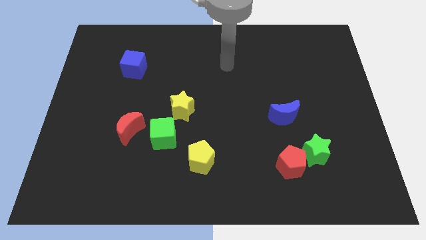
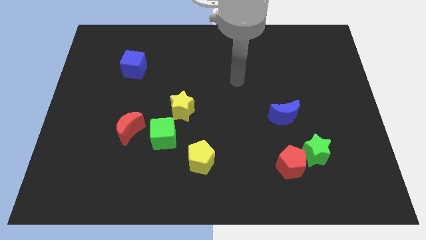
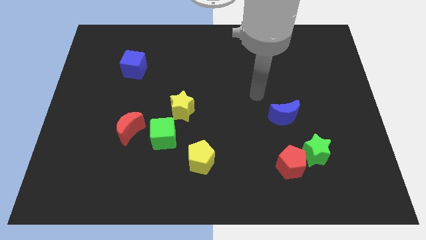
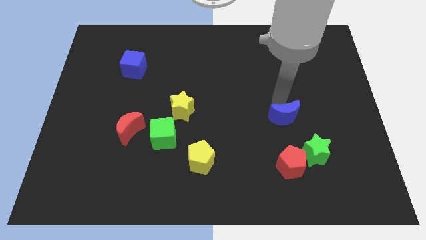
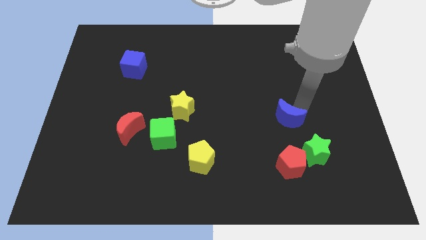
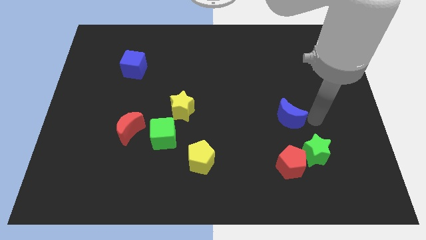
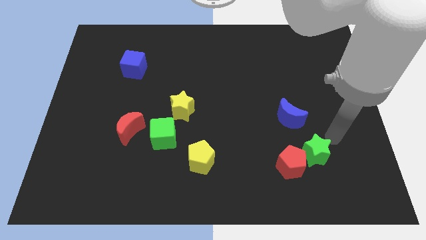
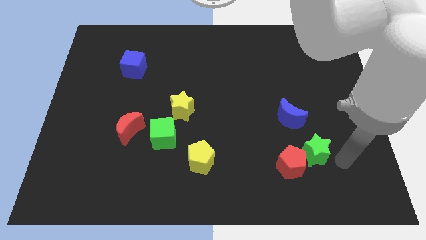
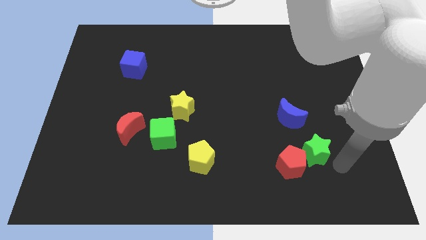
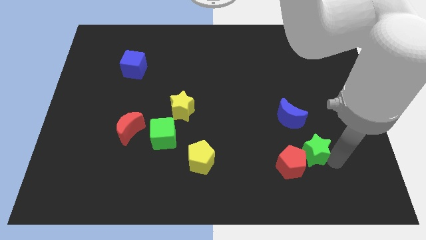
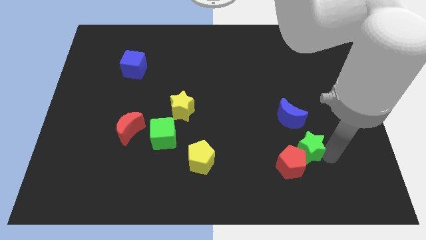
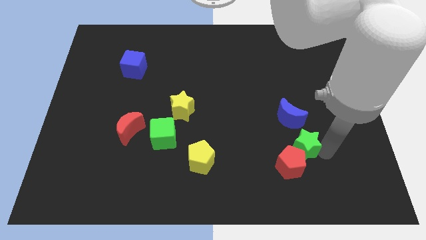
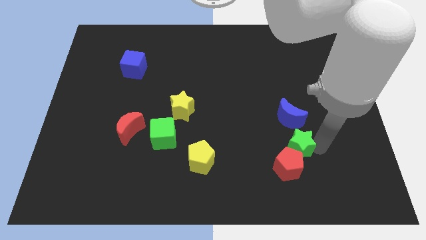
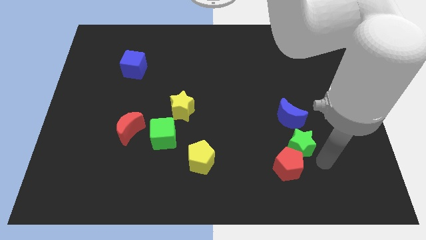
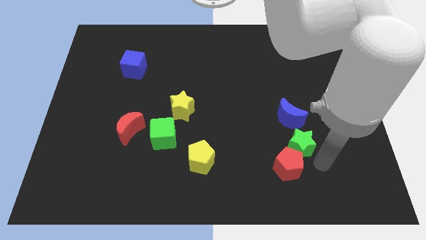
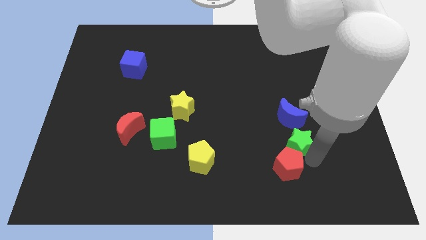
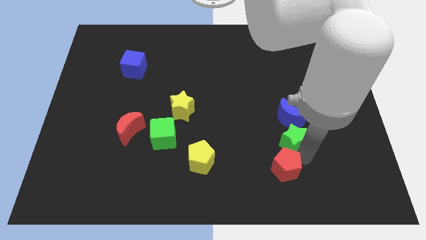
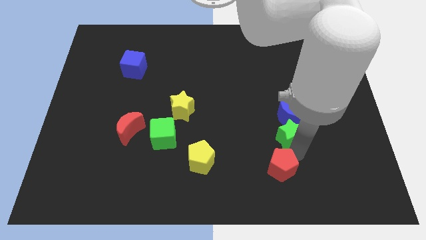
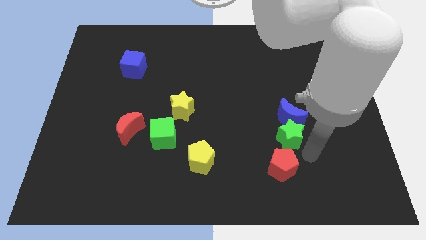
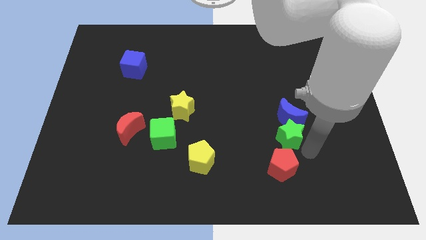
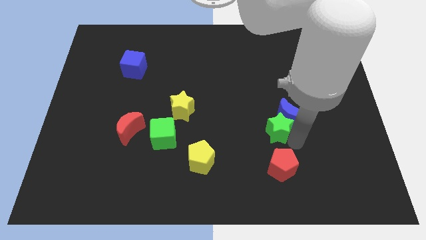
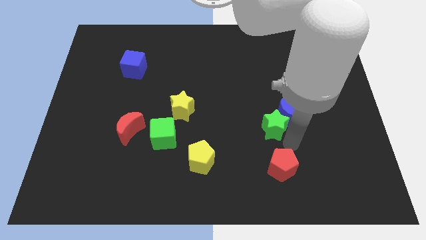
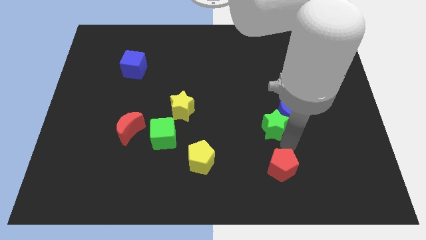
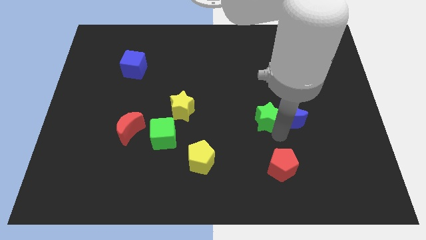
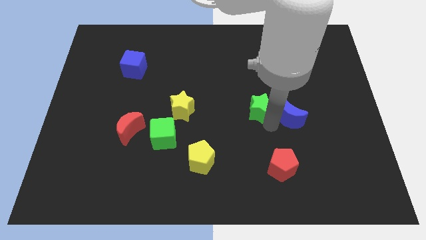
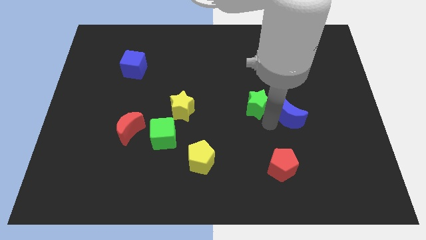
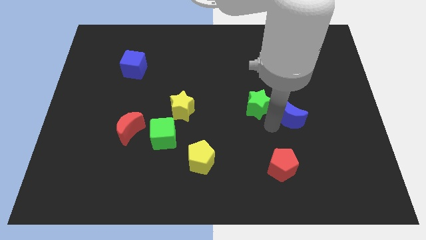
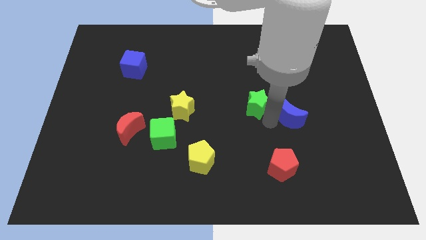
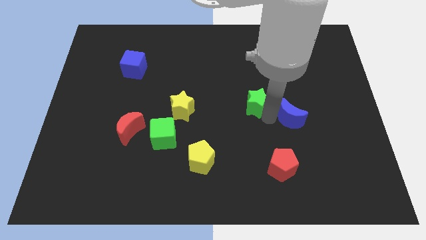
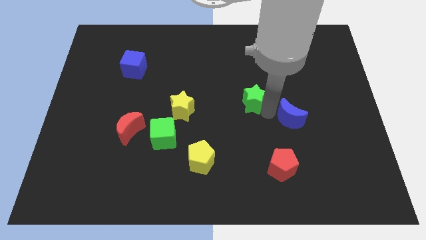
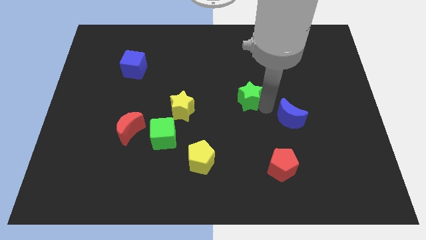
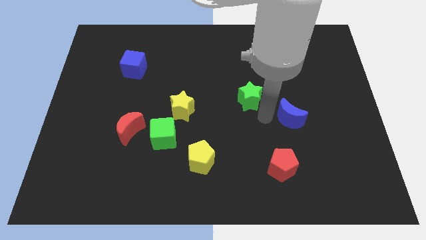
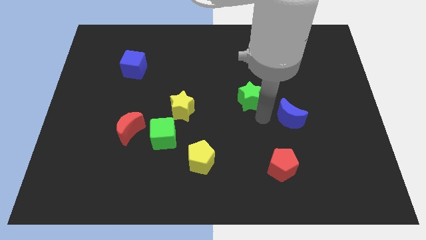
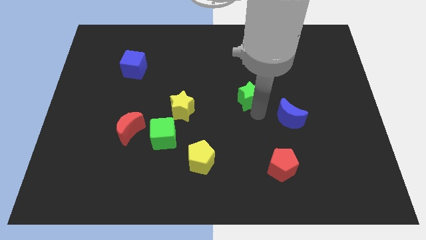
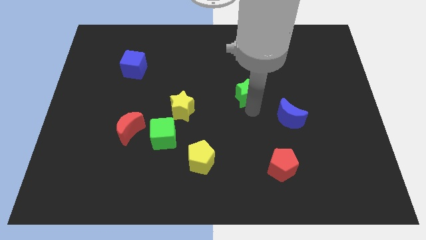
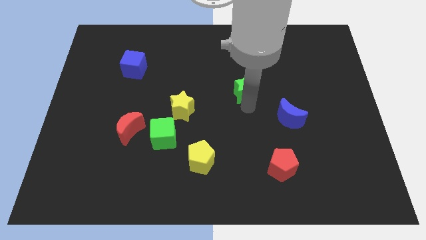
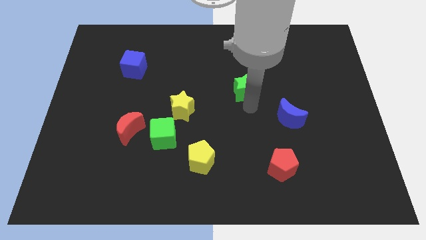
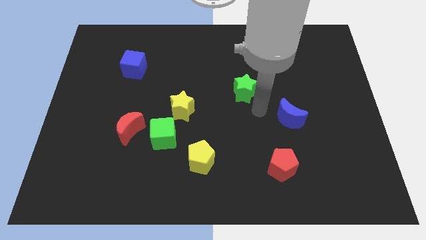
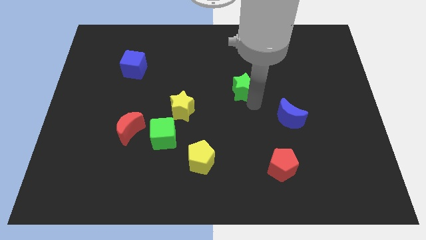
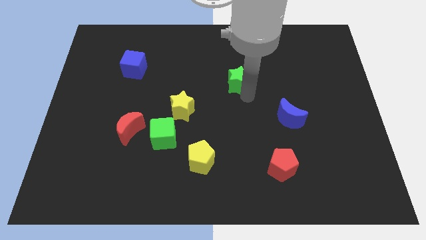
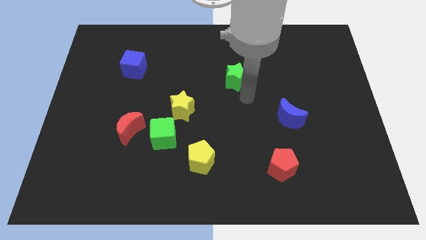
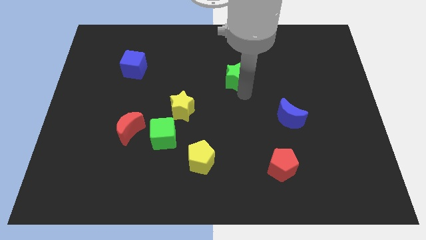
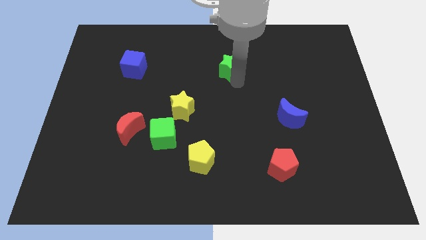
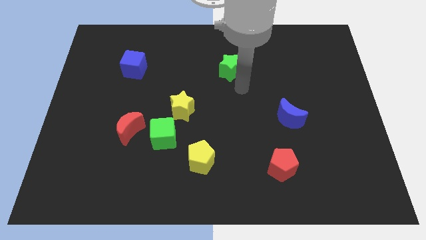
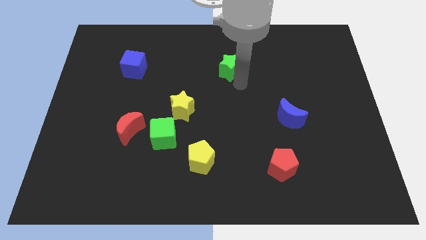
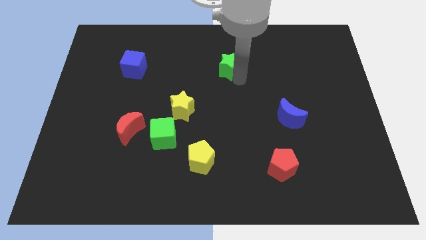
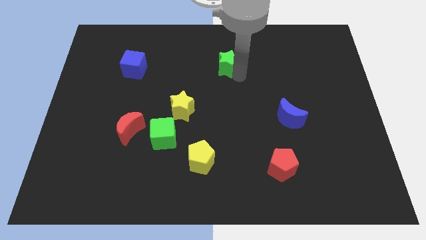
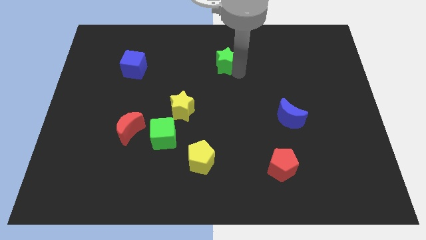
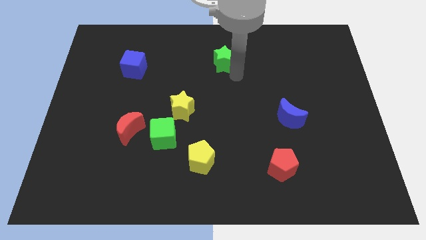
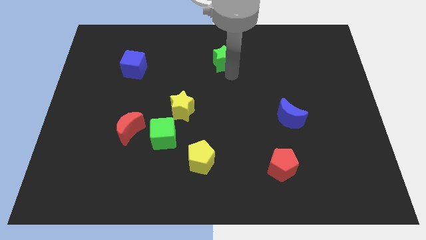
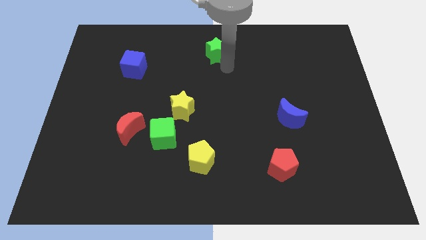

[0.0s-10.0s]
slide the green star to the top

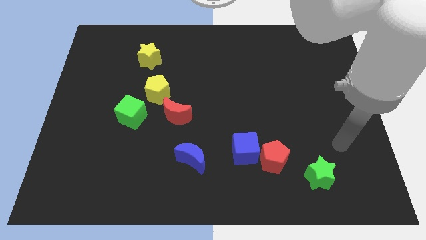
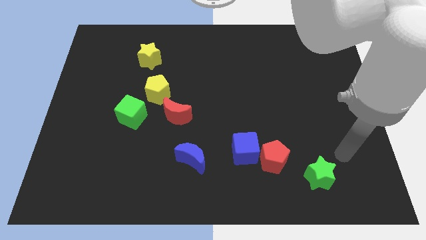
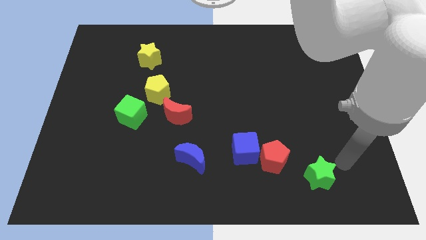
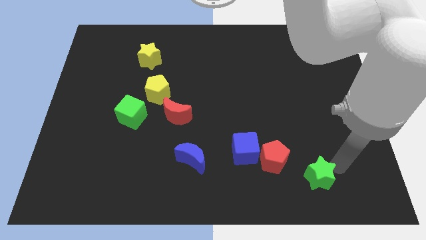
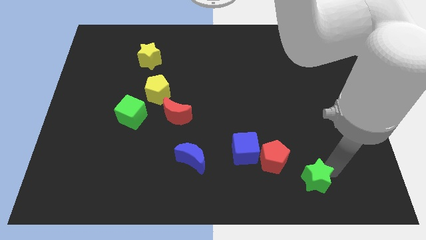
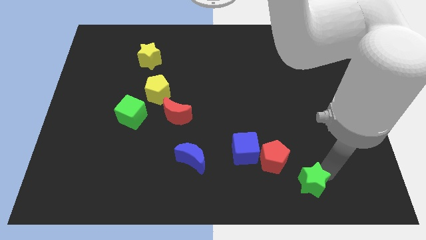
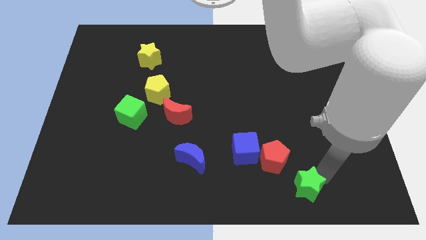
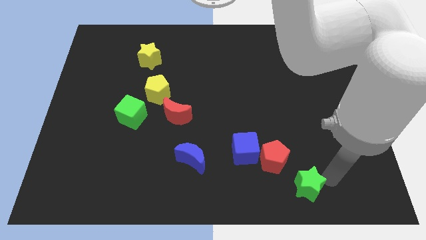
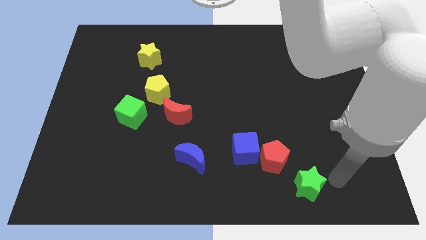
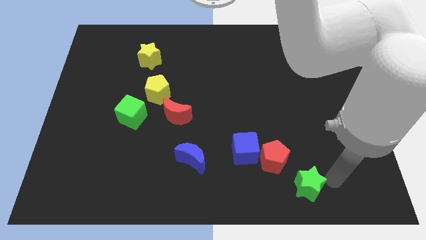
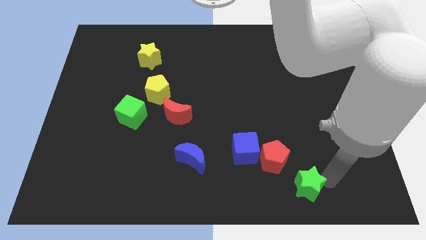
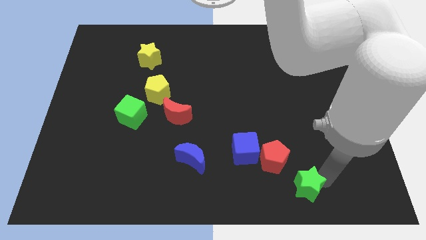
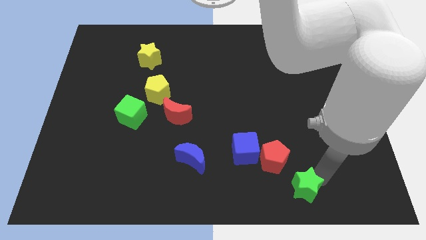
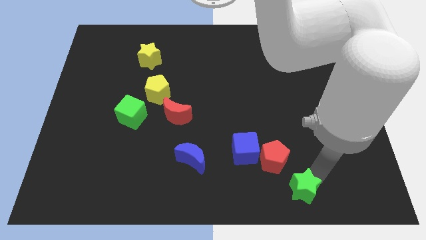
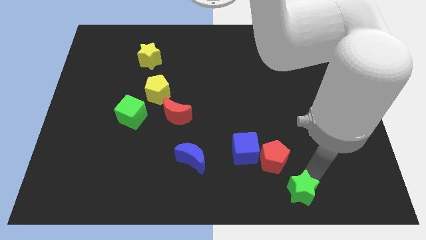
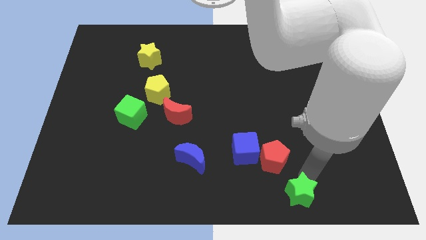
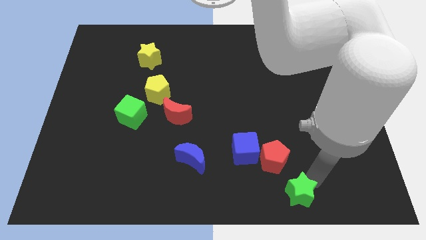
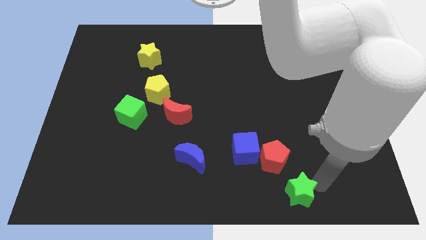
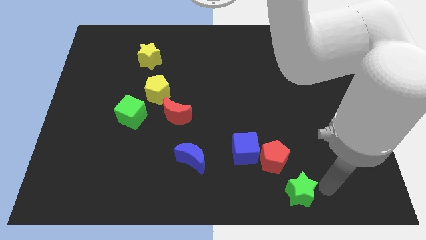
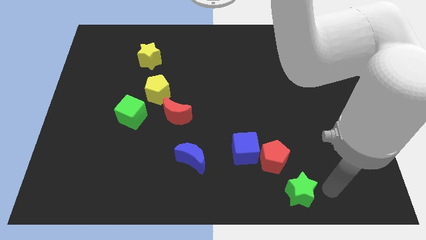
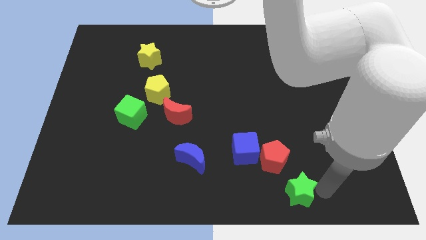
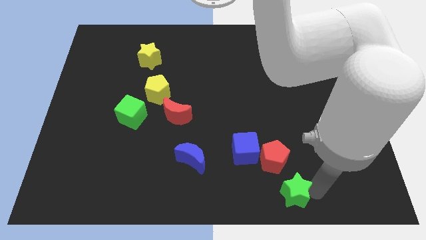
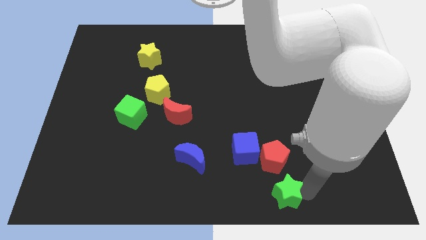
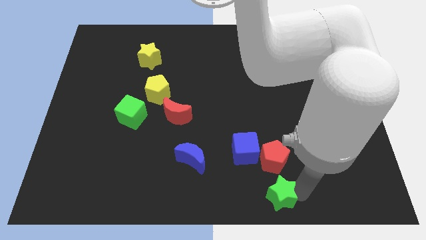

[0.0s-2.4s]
push the green star to the bottom
